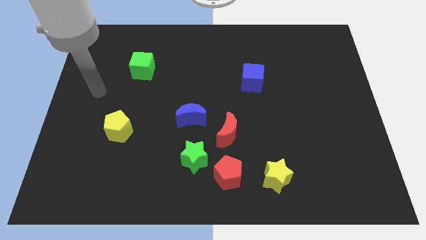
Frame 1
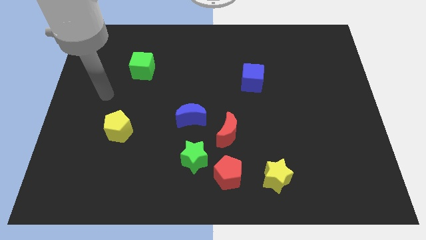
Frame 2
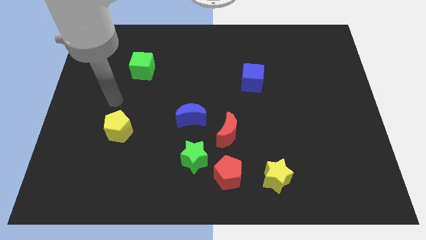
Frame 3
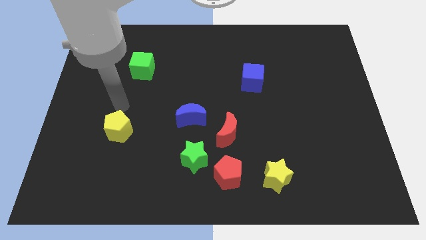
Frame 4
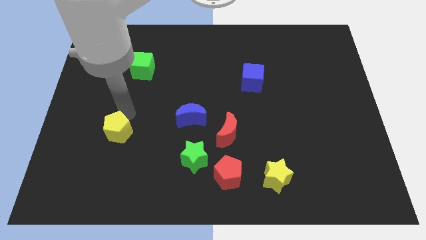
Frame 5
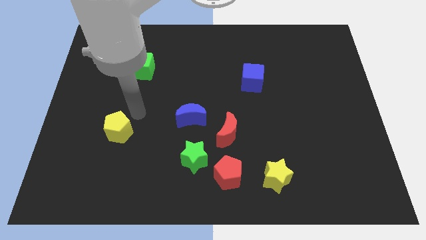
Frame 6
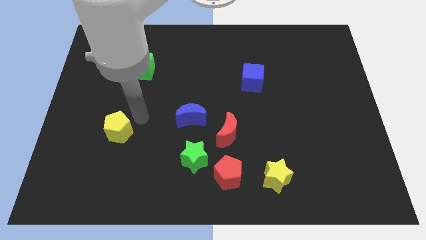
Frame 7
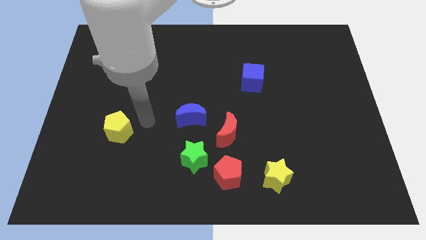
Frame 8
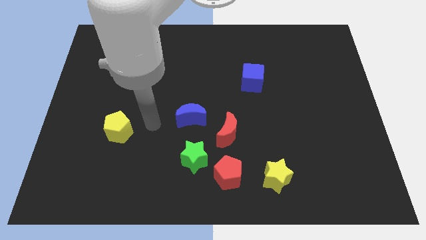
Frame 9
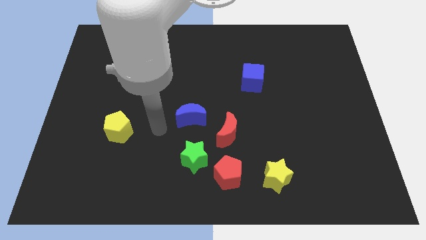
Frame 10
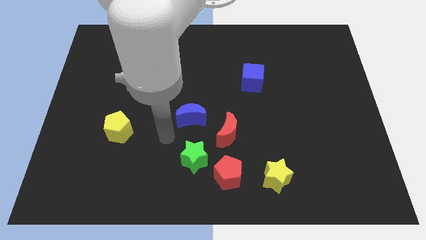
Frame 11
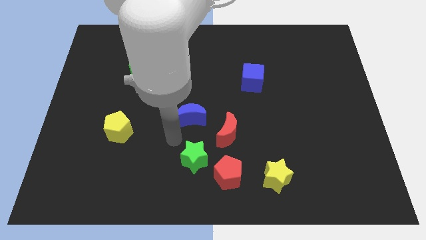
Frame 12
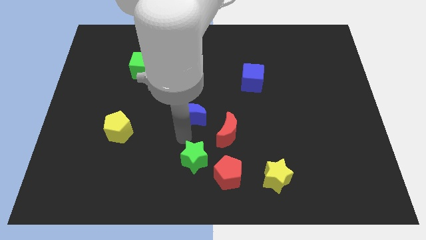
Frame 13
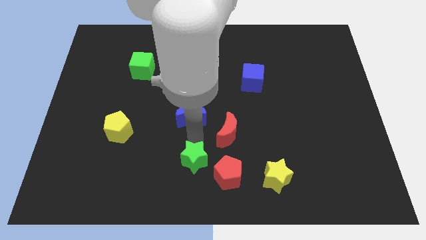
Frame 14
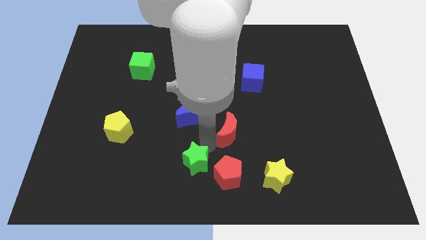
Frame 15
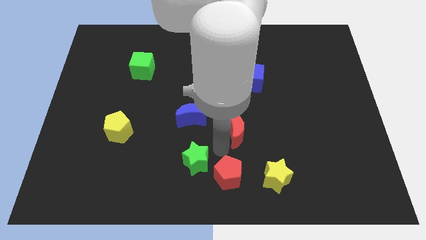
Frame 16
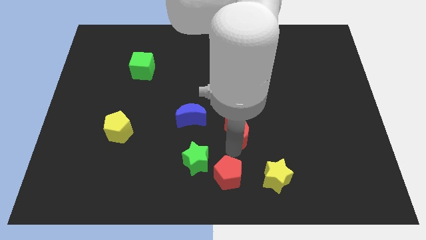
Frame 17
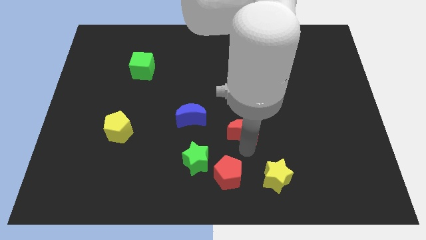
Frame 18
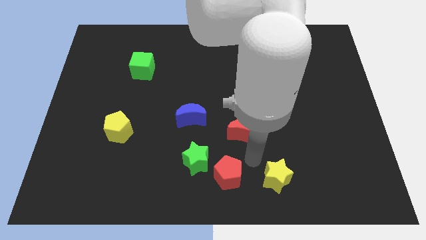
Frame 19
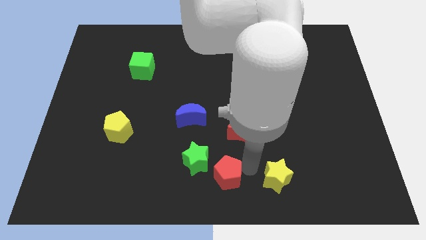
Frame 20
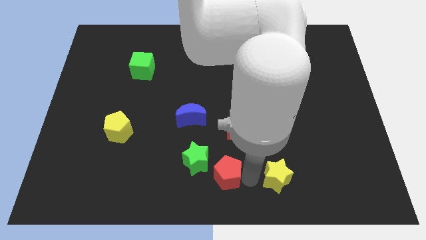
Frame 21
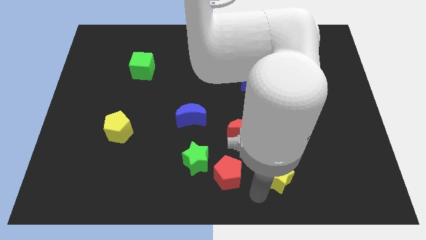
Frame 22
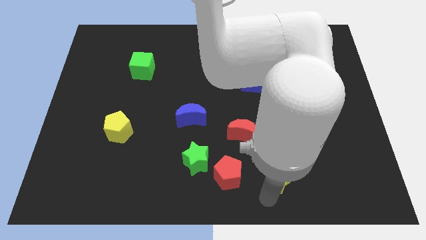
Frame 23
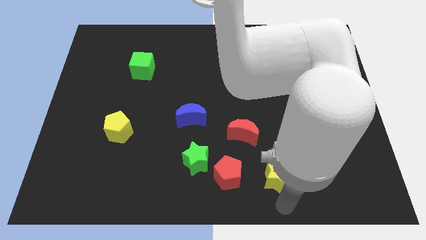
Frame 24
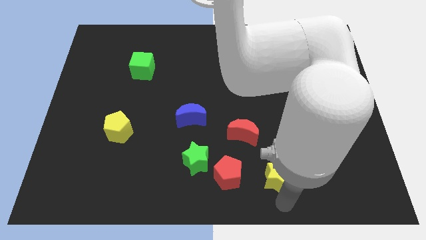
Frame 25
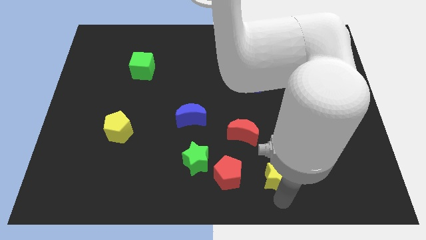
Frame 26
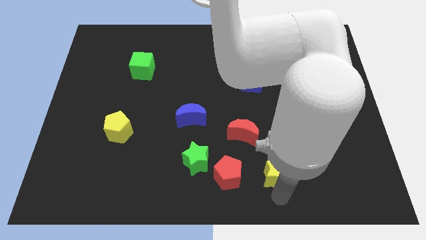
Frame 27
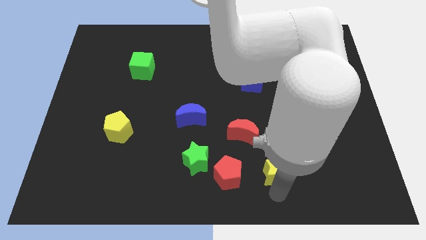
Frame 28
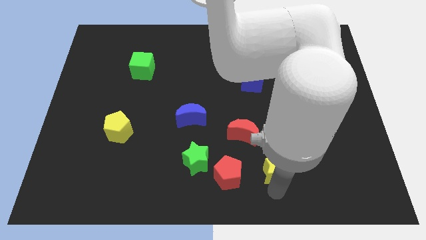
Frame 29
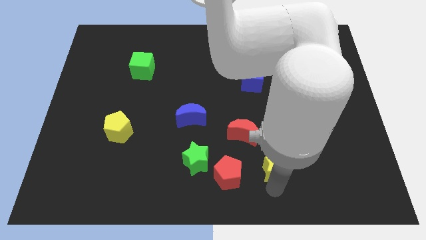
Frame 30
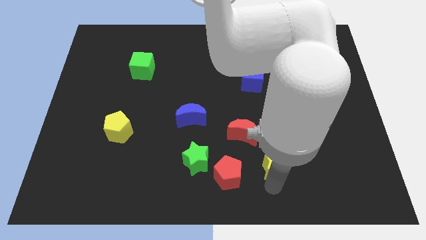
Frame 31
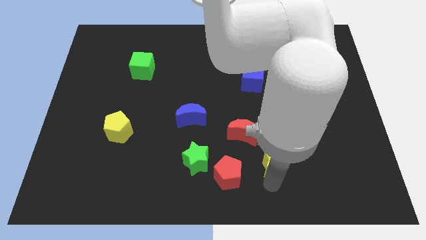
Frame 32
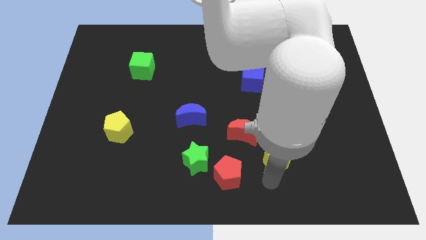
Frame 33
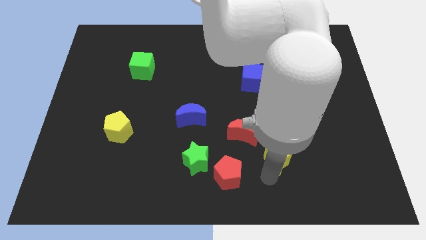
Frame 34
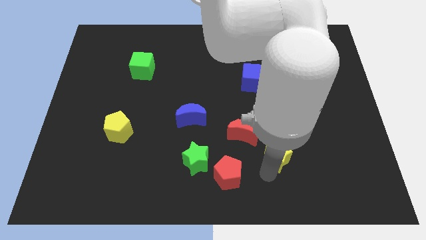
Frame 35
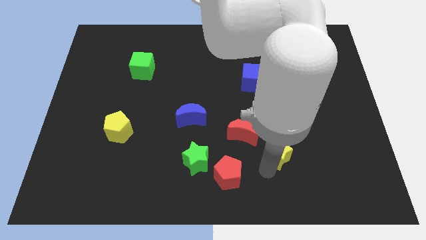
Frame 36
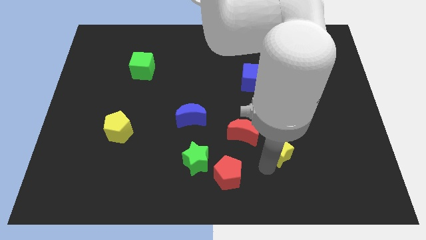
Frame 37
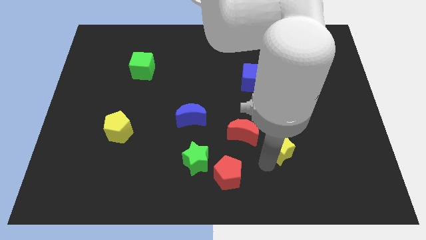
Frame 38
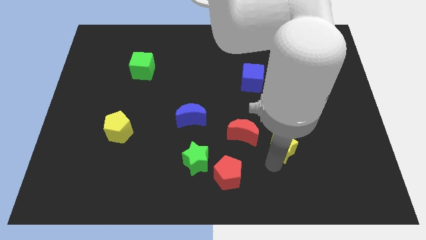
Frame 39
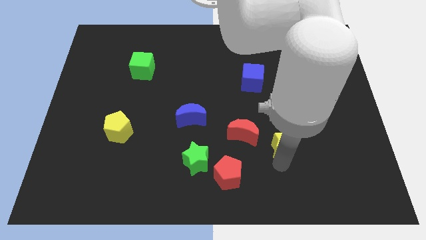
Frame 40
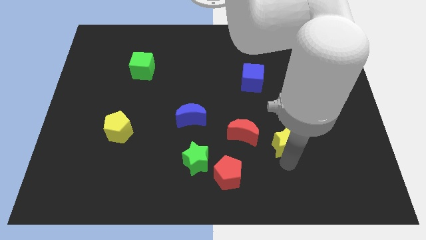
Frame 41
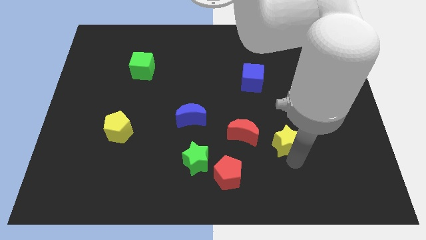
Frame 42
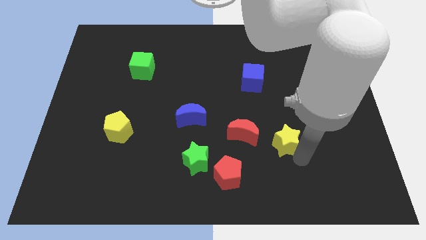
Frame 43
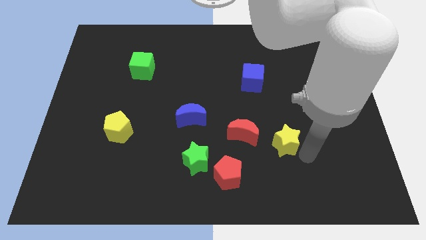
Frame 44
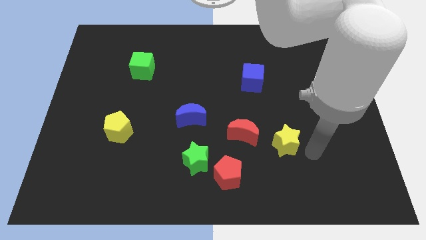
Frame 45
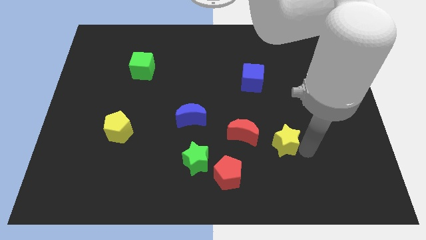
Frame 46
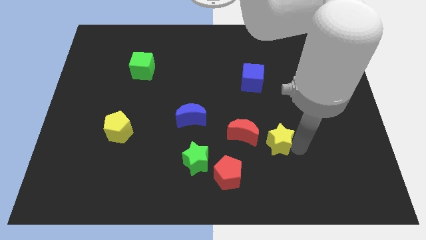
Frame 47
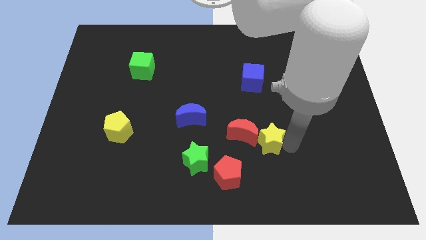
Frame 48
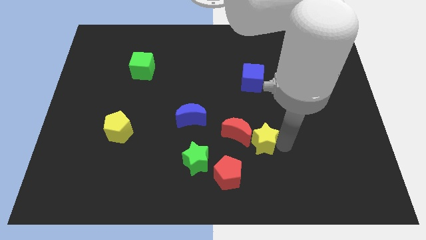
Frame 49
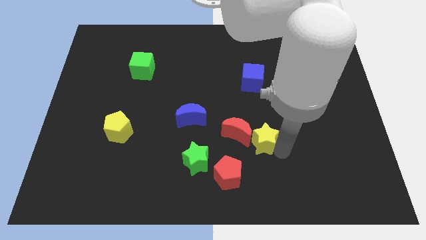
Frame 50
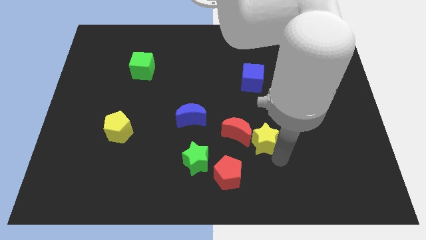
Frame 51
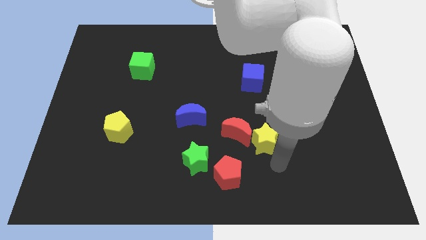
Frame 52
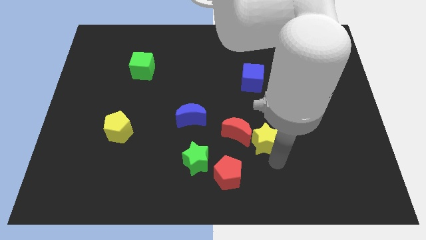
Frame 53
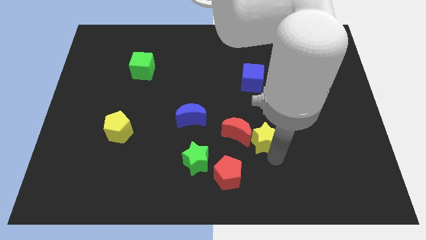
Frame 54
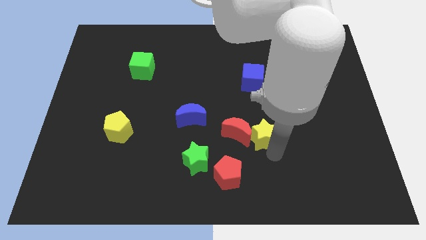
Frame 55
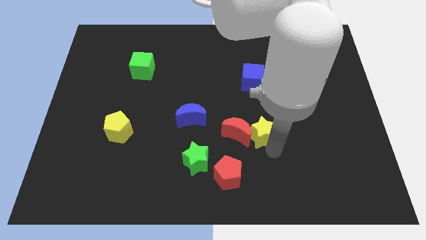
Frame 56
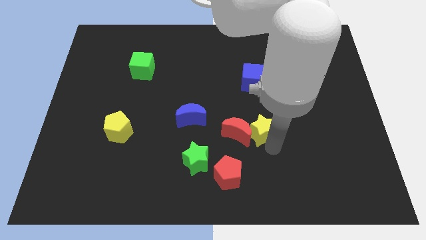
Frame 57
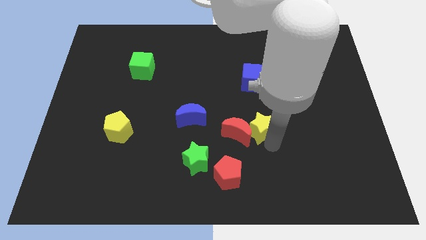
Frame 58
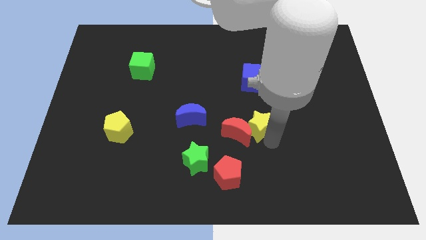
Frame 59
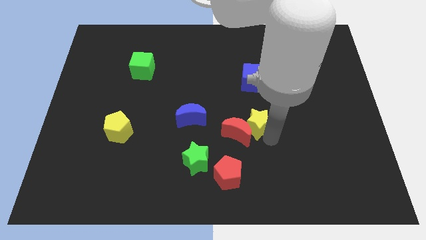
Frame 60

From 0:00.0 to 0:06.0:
push the yellow star to the center

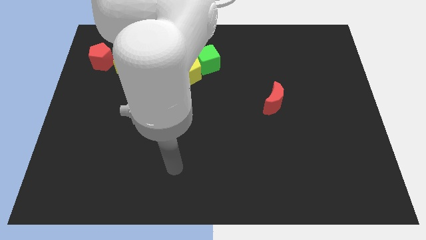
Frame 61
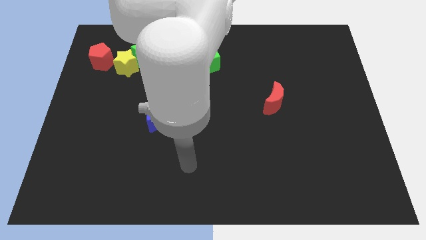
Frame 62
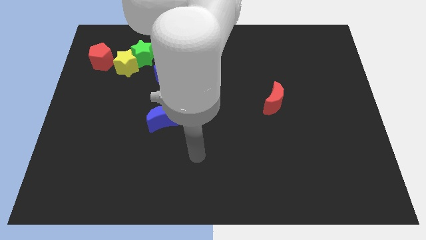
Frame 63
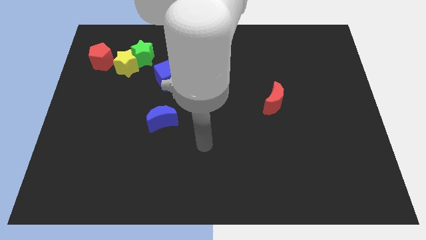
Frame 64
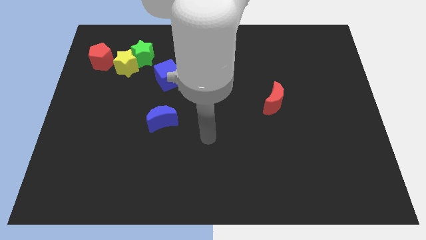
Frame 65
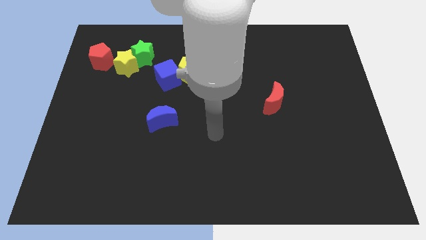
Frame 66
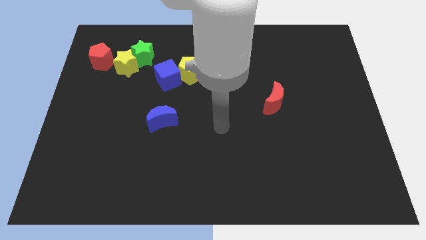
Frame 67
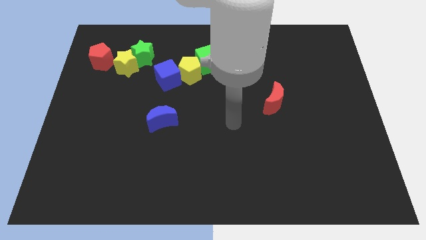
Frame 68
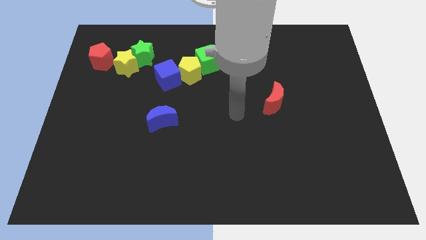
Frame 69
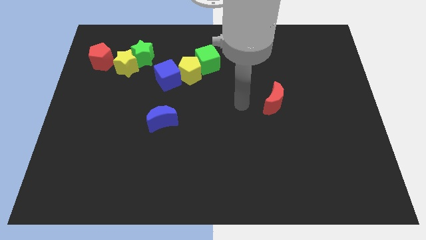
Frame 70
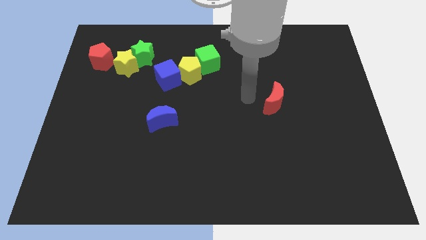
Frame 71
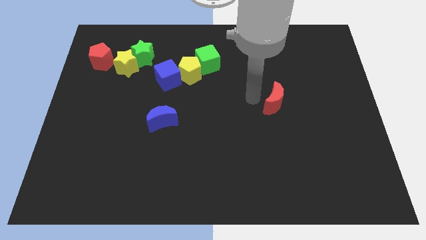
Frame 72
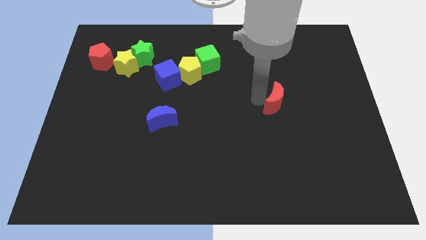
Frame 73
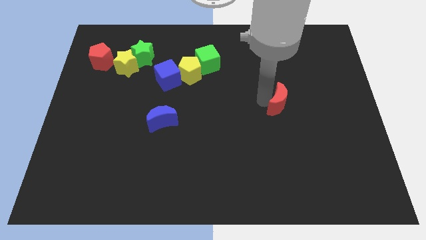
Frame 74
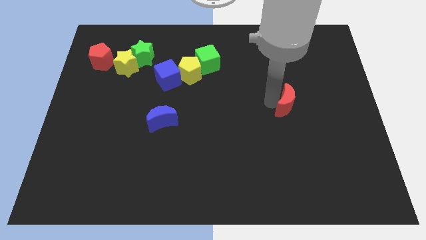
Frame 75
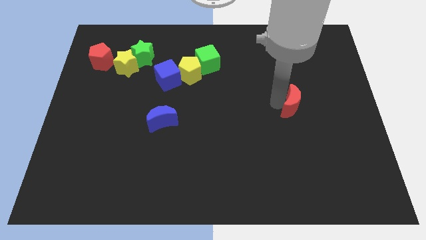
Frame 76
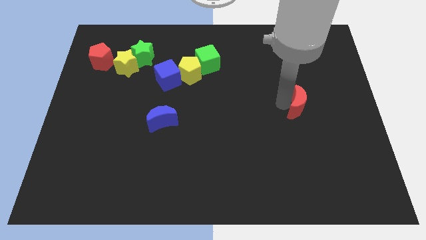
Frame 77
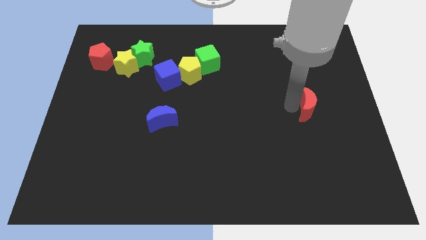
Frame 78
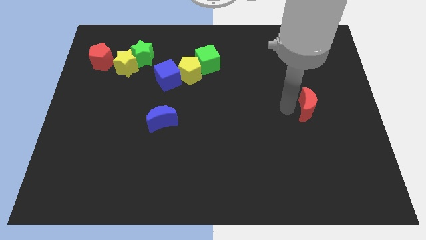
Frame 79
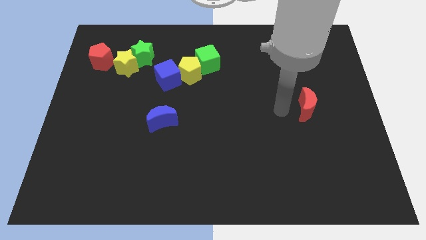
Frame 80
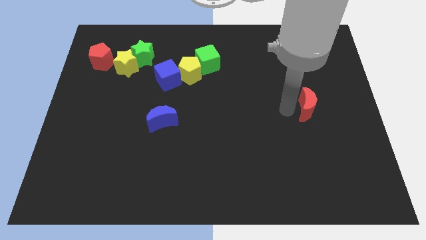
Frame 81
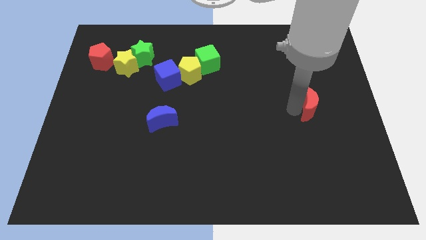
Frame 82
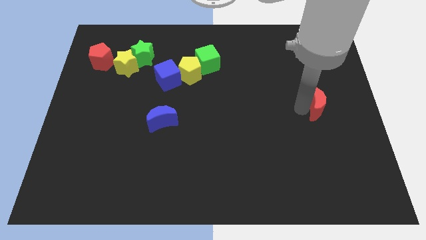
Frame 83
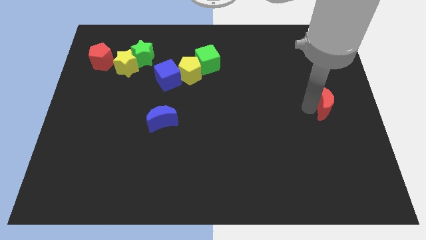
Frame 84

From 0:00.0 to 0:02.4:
move the red moon to the right side of the board
